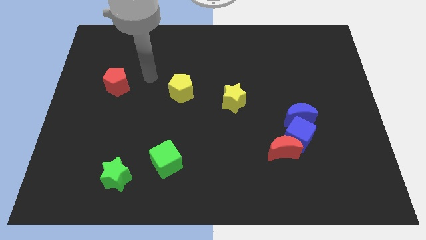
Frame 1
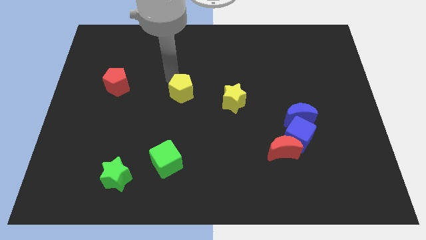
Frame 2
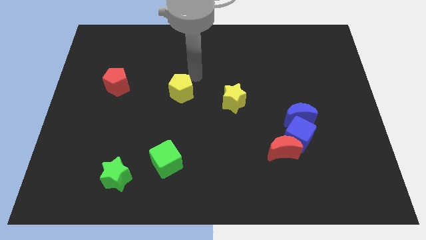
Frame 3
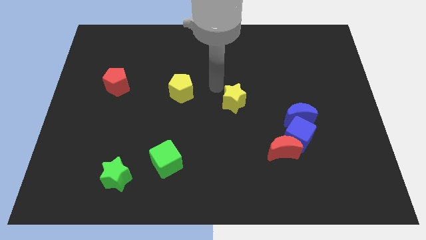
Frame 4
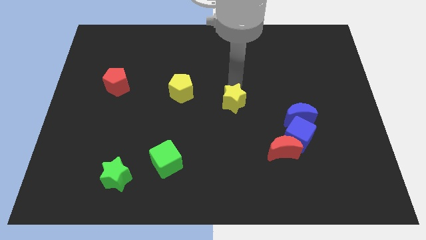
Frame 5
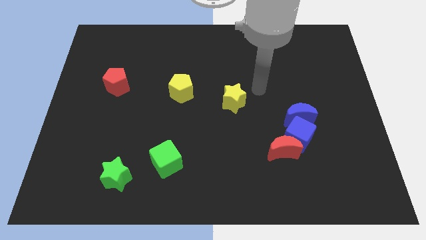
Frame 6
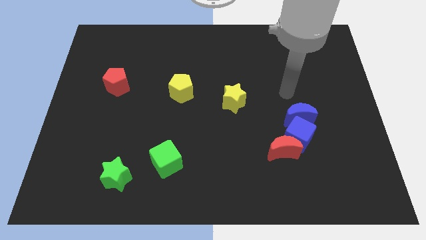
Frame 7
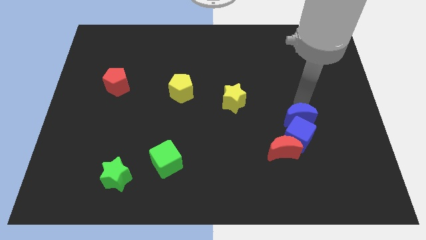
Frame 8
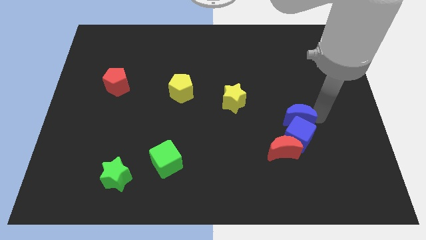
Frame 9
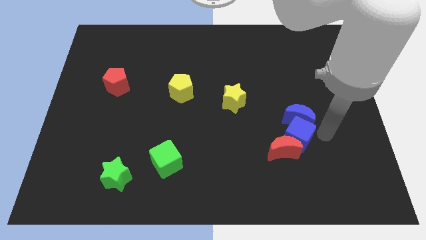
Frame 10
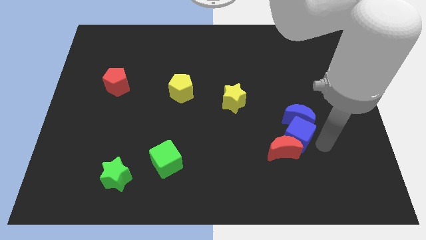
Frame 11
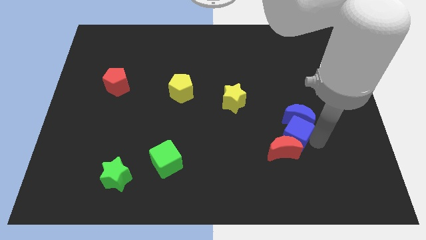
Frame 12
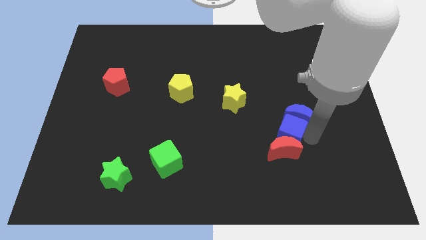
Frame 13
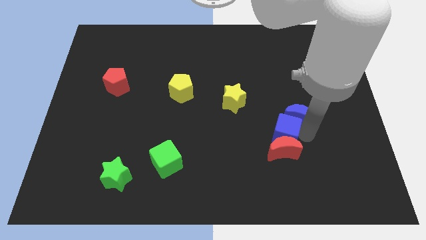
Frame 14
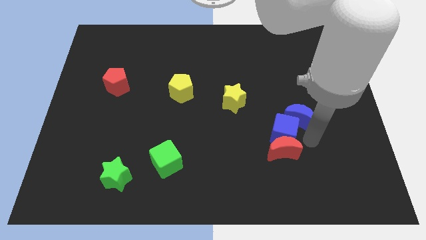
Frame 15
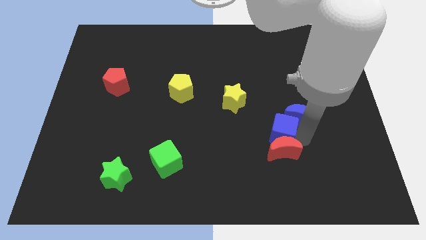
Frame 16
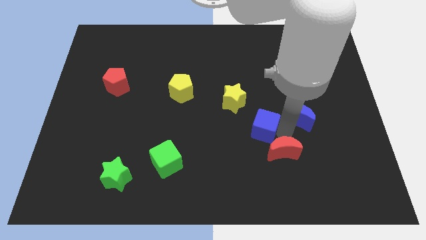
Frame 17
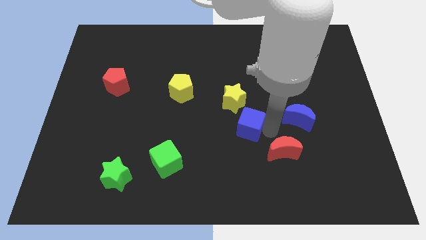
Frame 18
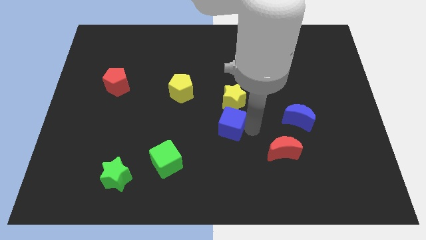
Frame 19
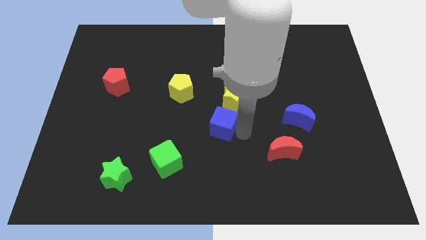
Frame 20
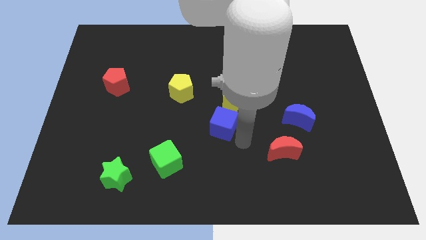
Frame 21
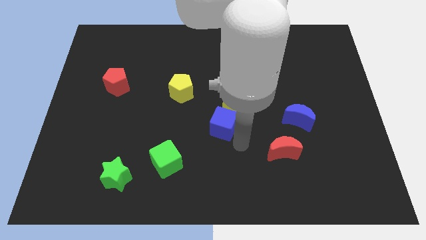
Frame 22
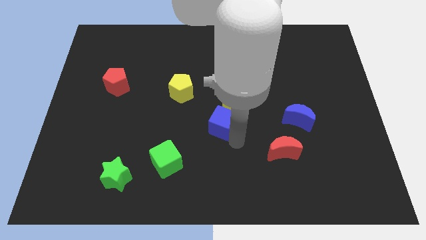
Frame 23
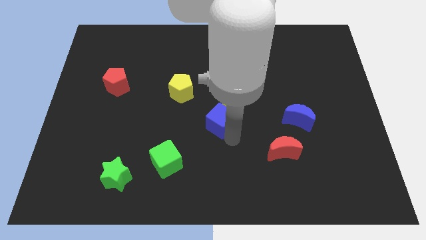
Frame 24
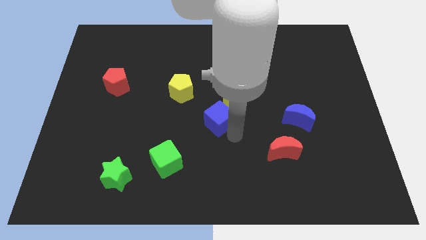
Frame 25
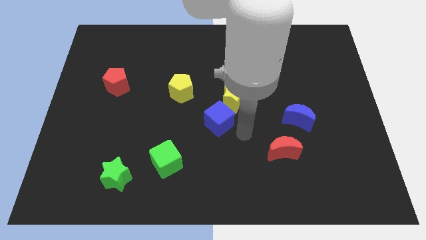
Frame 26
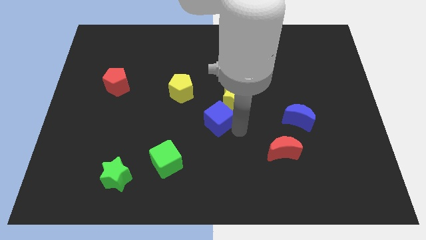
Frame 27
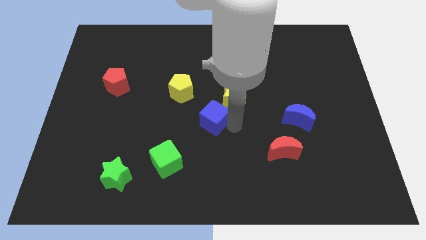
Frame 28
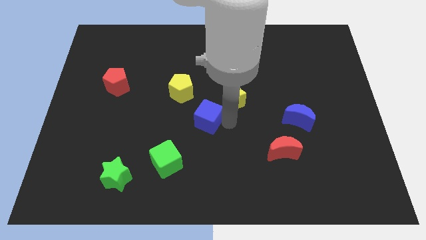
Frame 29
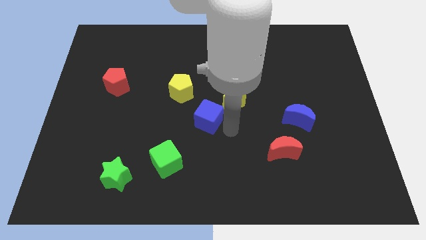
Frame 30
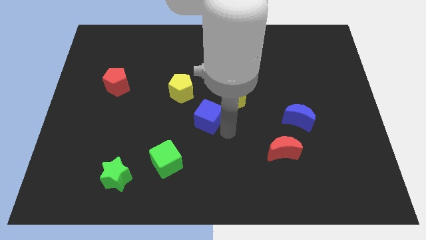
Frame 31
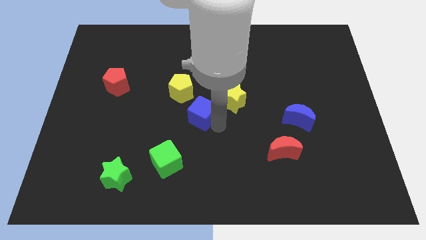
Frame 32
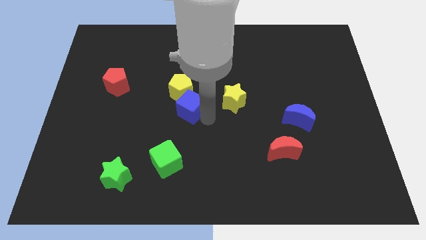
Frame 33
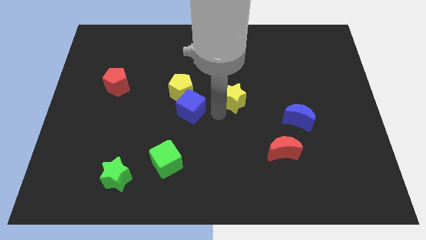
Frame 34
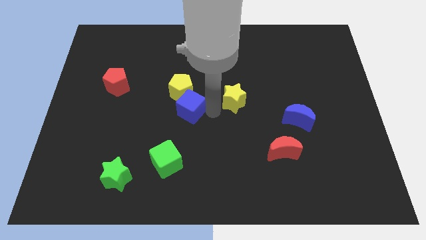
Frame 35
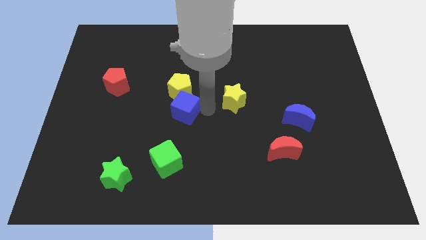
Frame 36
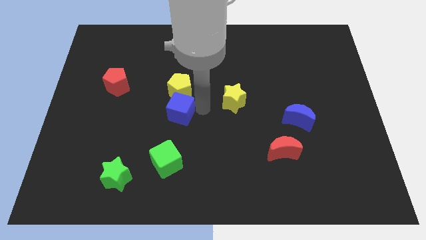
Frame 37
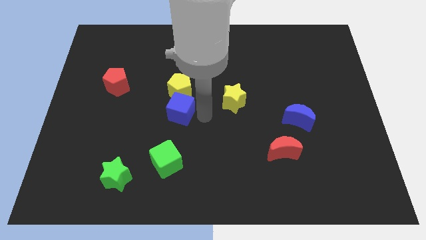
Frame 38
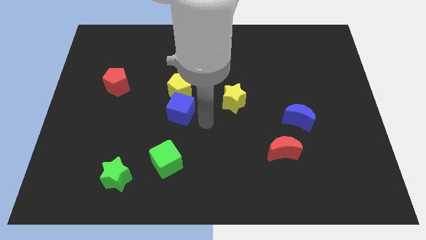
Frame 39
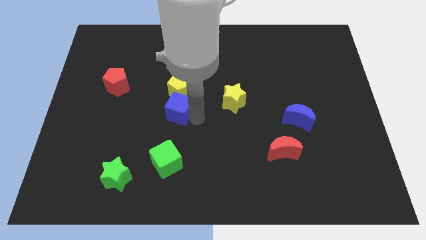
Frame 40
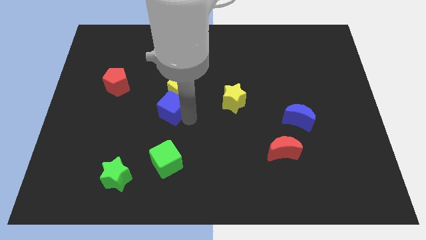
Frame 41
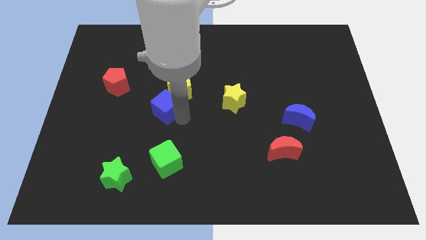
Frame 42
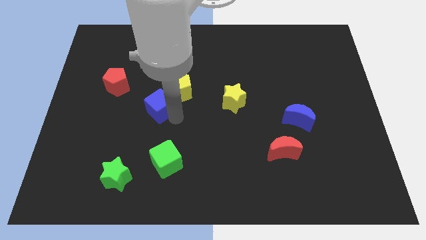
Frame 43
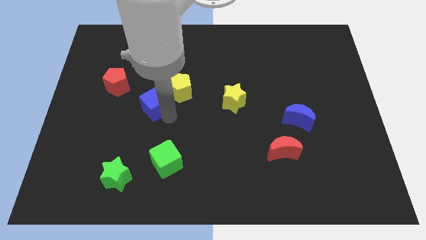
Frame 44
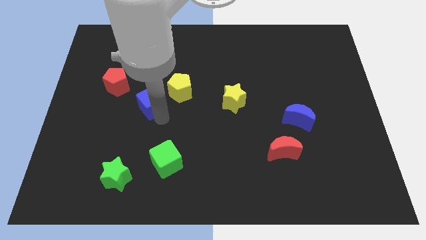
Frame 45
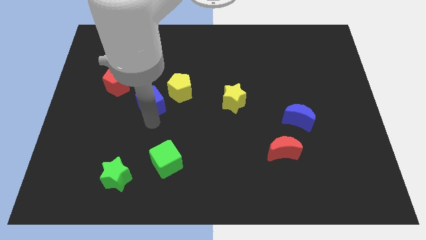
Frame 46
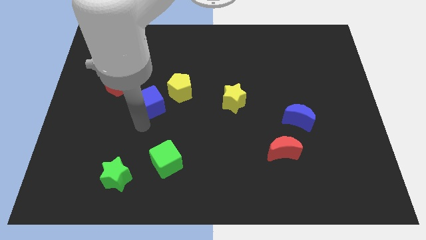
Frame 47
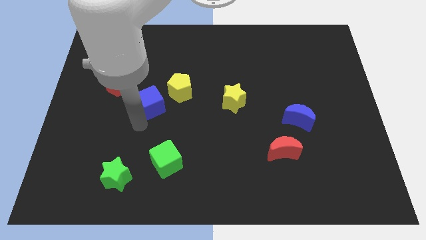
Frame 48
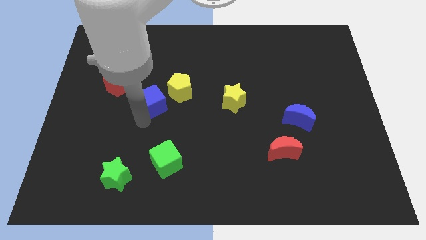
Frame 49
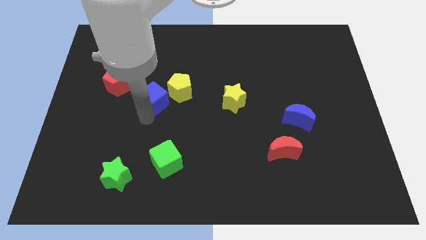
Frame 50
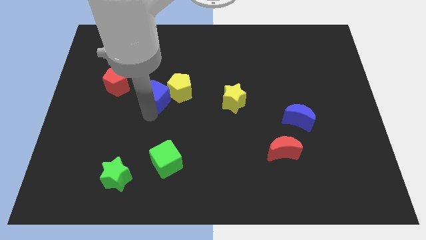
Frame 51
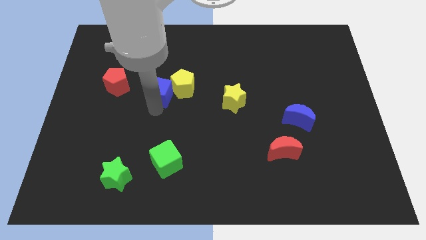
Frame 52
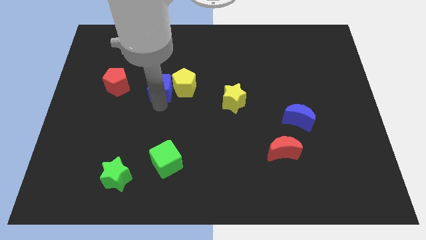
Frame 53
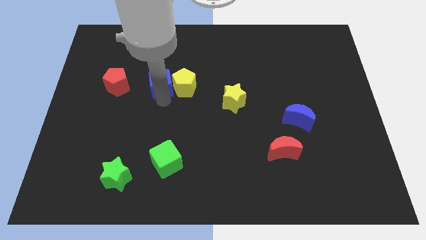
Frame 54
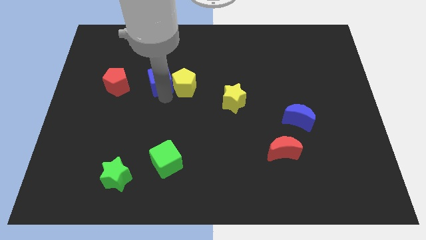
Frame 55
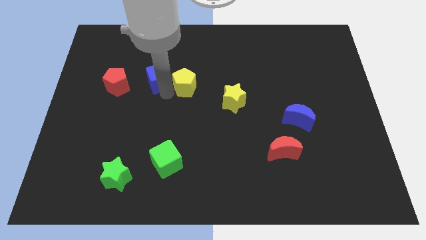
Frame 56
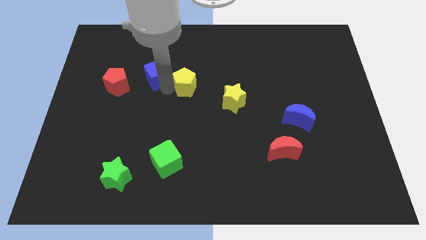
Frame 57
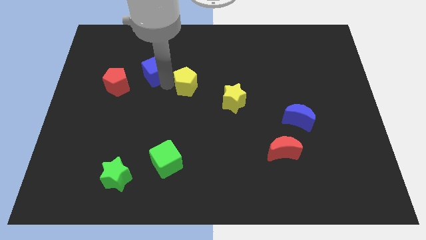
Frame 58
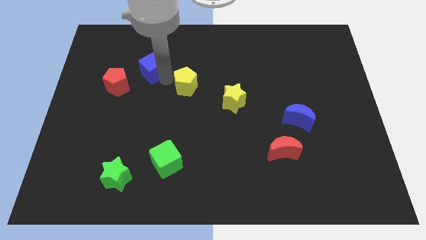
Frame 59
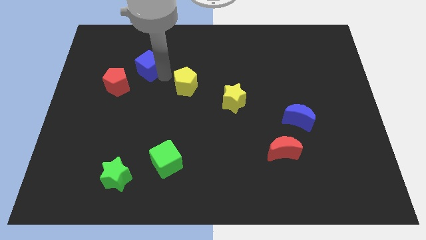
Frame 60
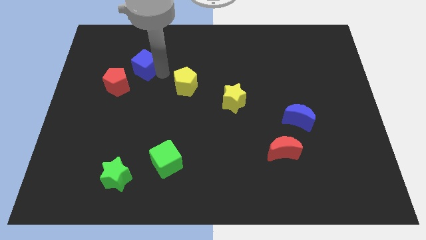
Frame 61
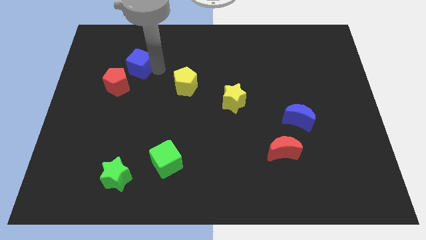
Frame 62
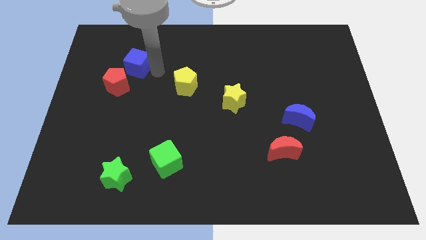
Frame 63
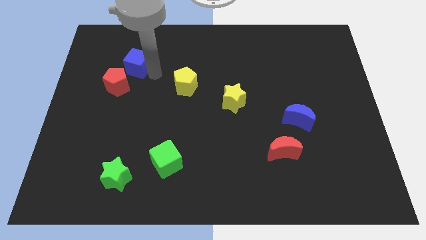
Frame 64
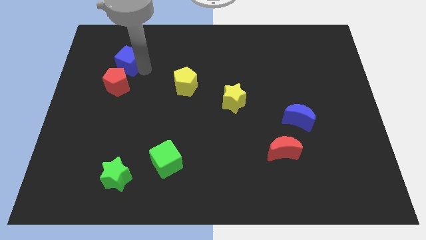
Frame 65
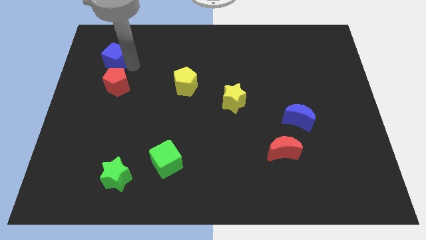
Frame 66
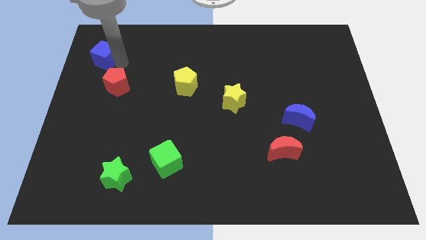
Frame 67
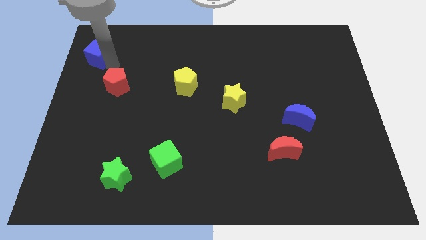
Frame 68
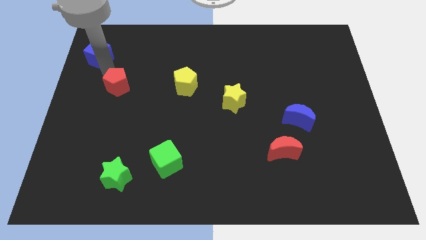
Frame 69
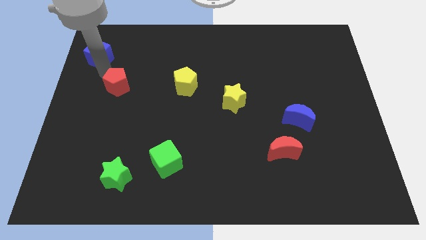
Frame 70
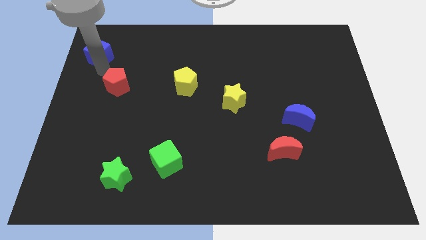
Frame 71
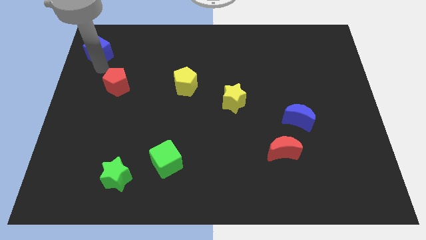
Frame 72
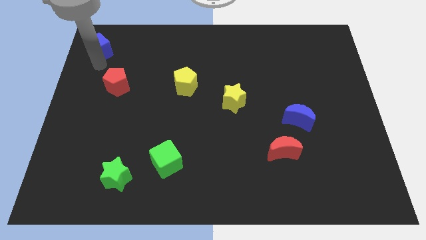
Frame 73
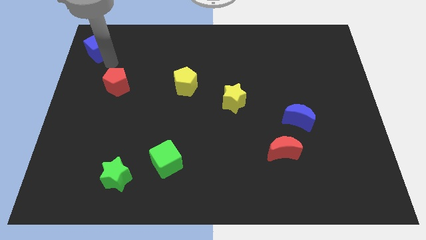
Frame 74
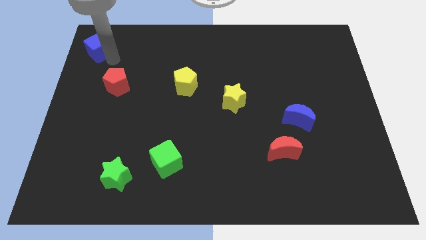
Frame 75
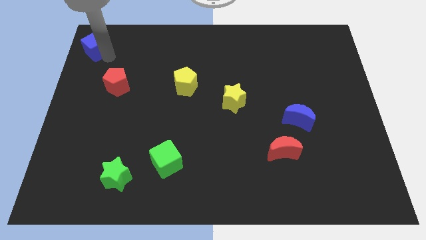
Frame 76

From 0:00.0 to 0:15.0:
put the blue cube to the top left of the board
